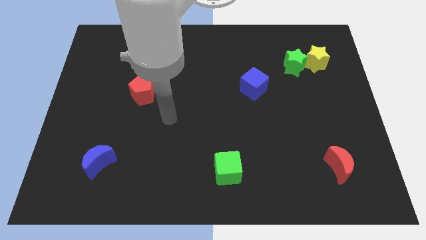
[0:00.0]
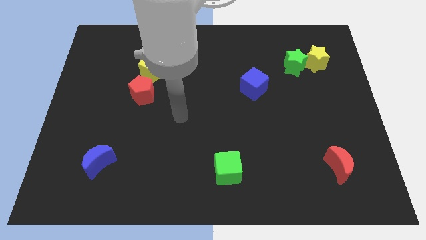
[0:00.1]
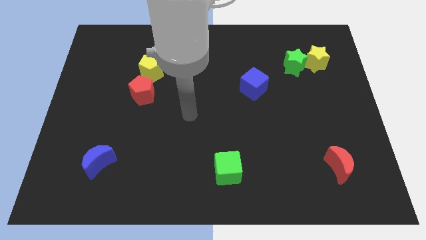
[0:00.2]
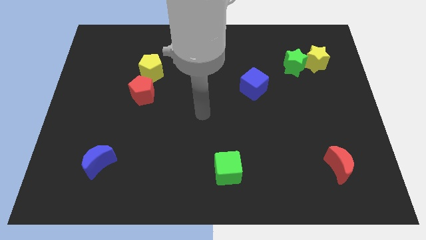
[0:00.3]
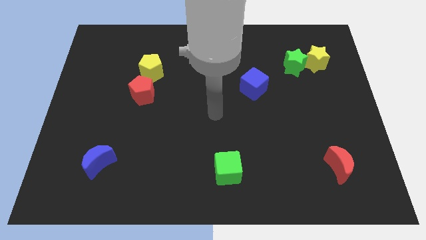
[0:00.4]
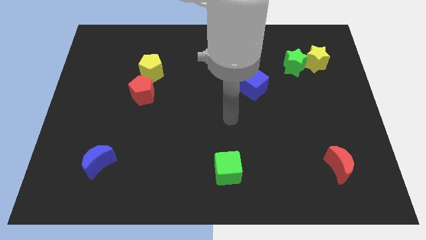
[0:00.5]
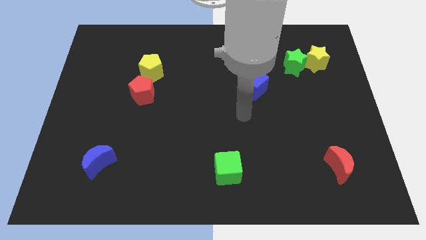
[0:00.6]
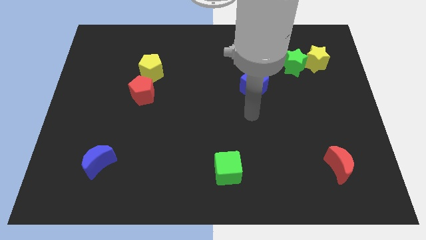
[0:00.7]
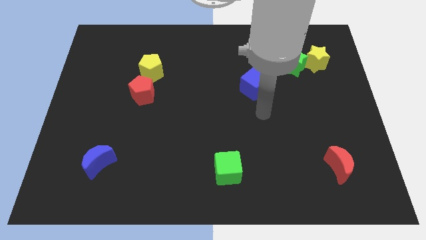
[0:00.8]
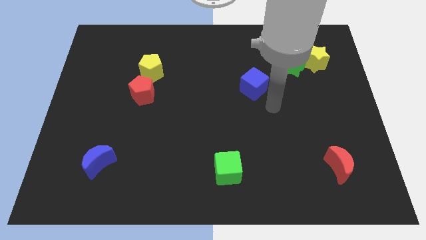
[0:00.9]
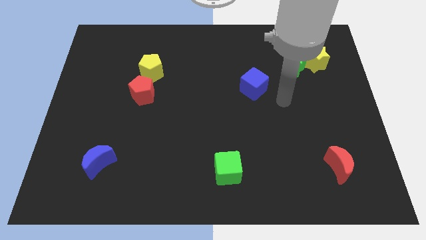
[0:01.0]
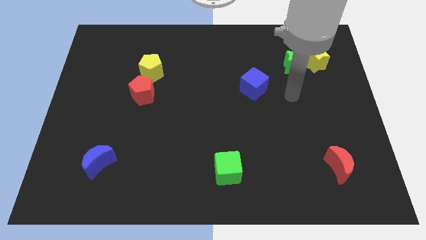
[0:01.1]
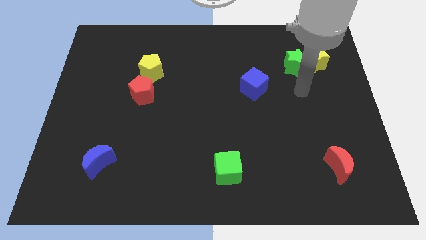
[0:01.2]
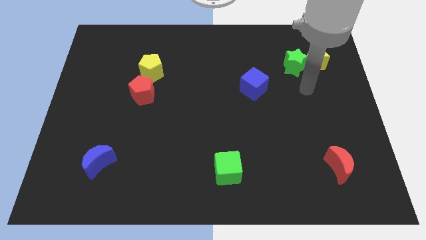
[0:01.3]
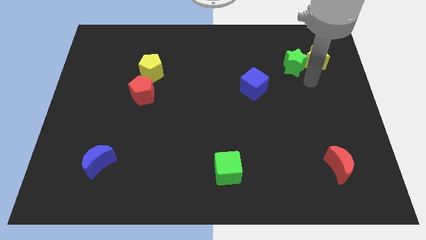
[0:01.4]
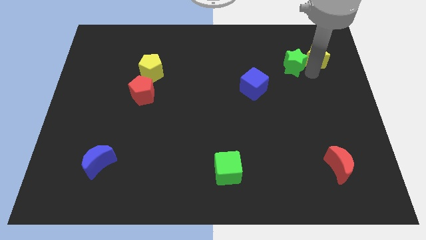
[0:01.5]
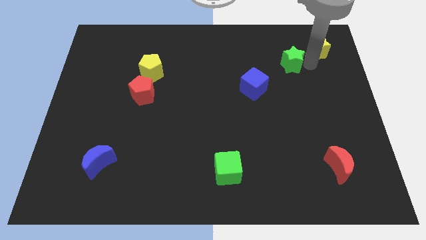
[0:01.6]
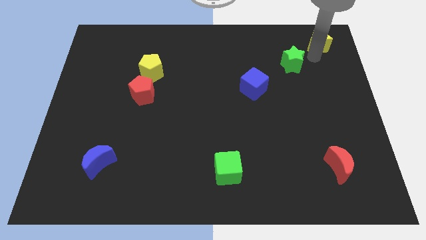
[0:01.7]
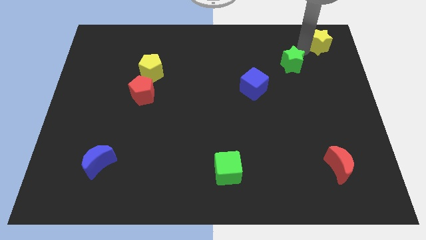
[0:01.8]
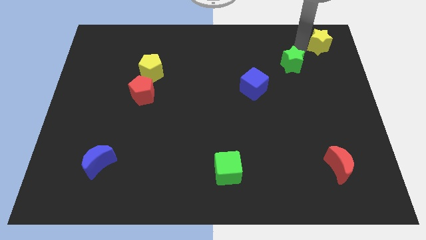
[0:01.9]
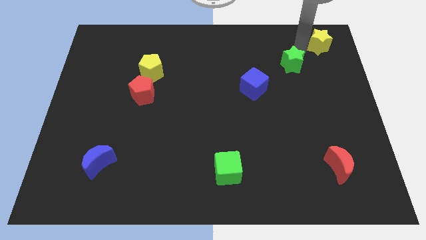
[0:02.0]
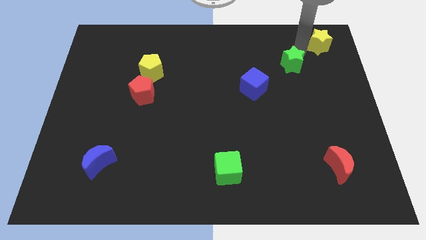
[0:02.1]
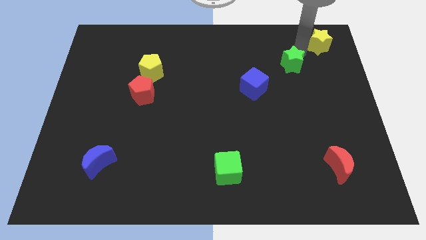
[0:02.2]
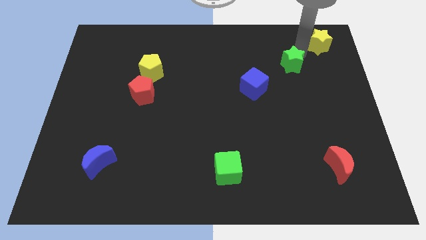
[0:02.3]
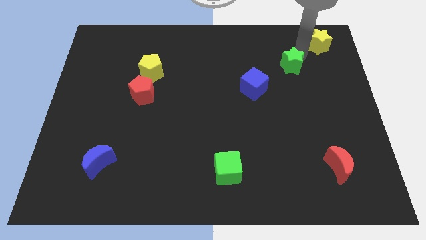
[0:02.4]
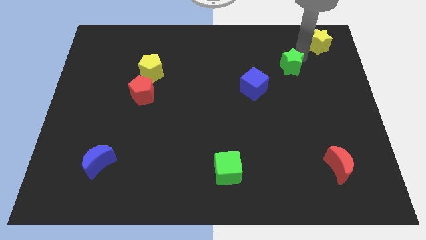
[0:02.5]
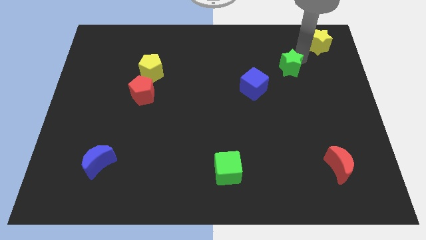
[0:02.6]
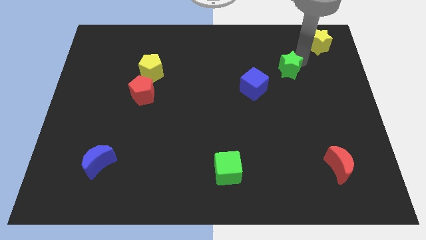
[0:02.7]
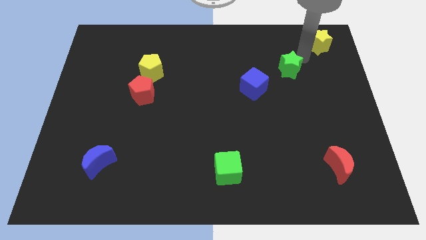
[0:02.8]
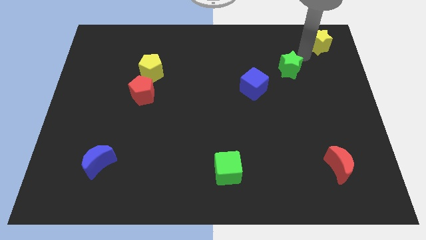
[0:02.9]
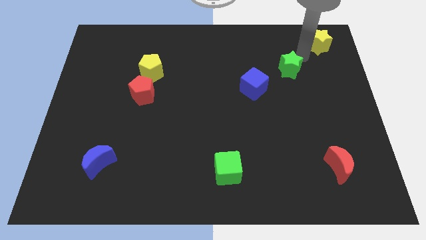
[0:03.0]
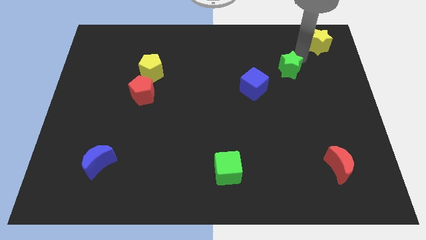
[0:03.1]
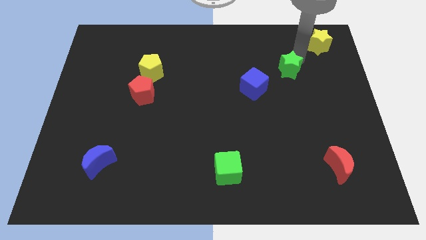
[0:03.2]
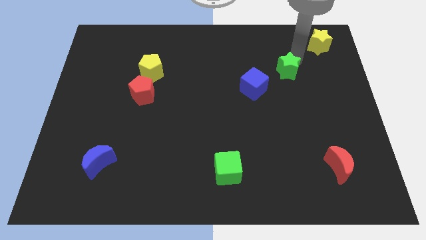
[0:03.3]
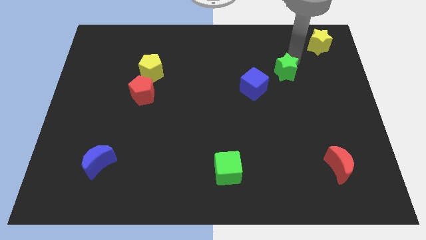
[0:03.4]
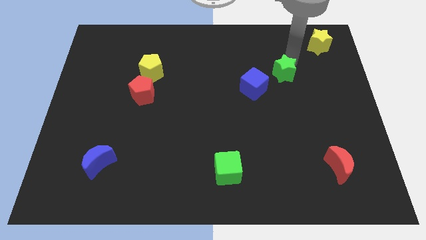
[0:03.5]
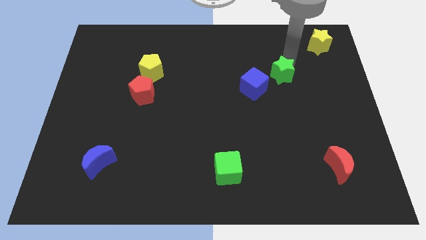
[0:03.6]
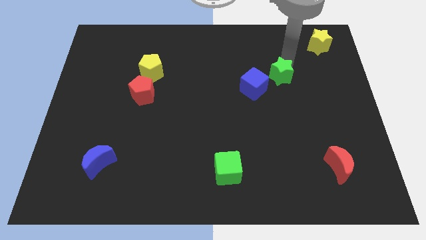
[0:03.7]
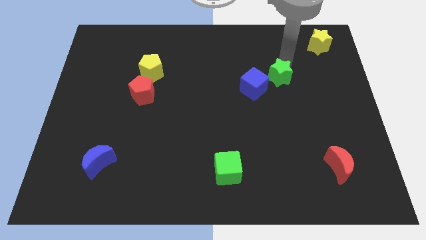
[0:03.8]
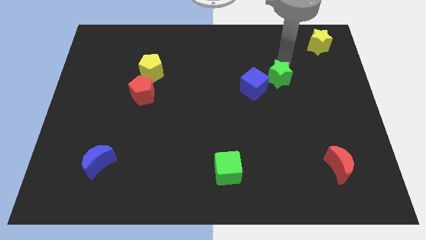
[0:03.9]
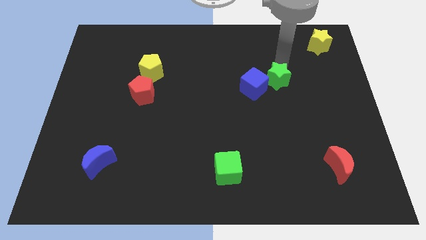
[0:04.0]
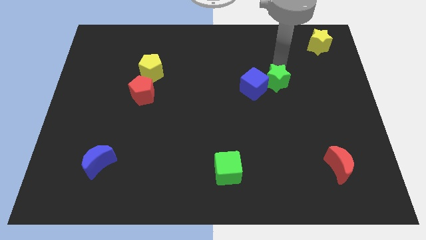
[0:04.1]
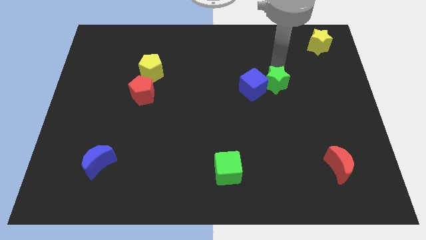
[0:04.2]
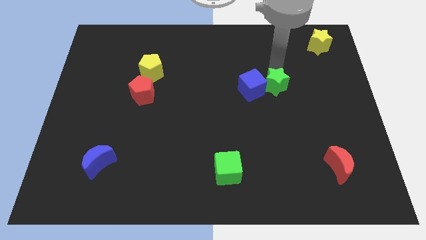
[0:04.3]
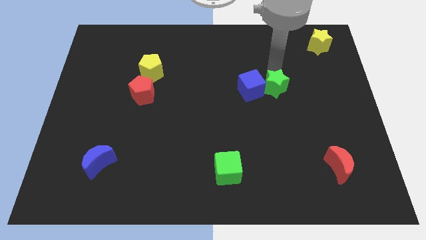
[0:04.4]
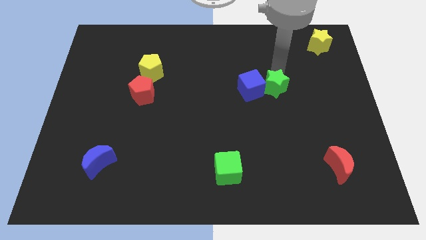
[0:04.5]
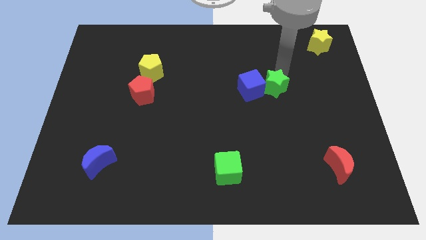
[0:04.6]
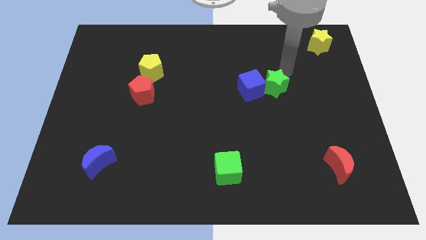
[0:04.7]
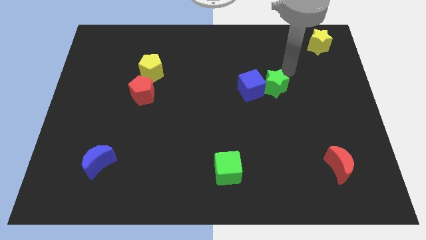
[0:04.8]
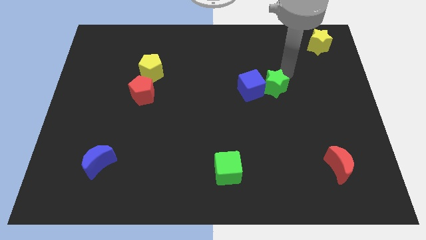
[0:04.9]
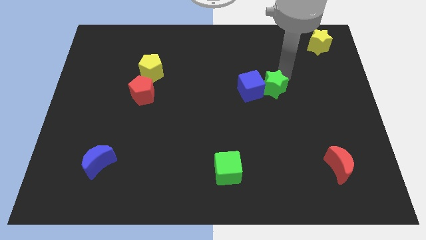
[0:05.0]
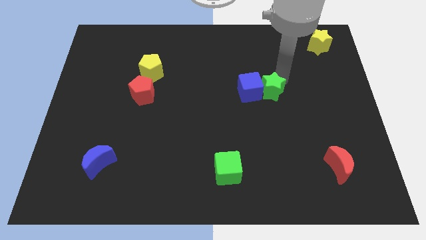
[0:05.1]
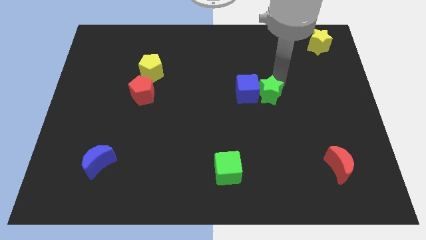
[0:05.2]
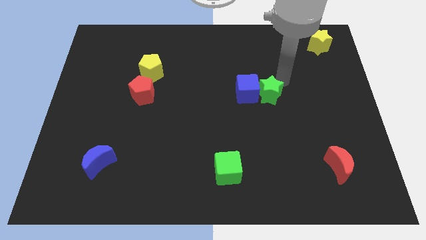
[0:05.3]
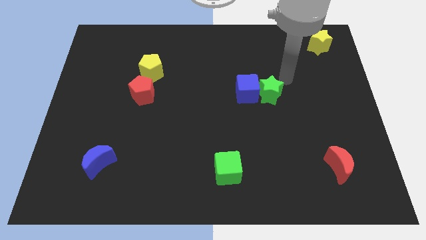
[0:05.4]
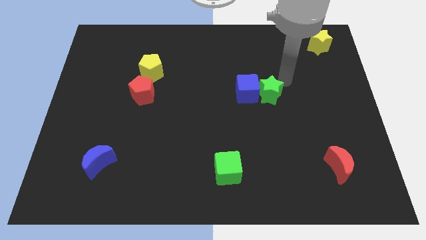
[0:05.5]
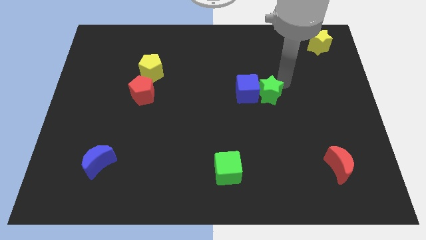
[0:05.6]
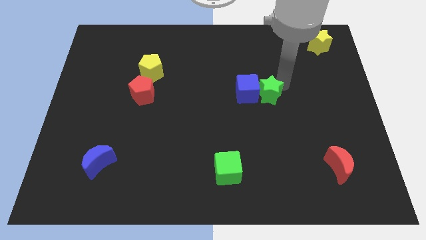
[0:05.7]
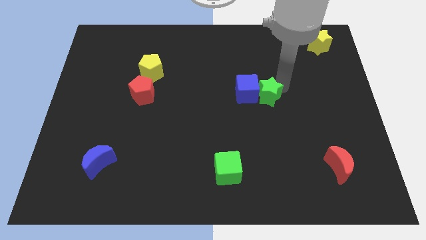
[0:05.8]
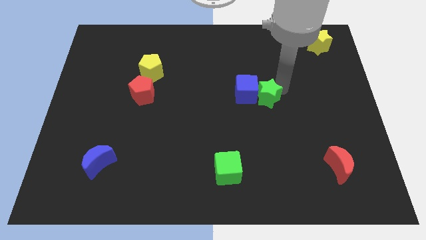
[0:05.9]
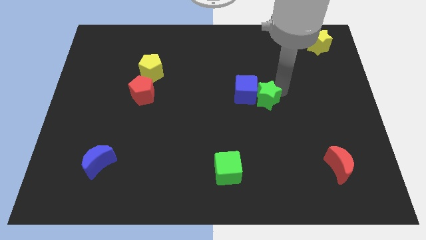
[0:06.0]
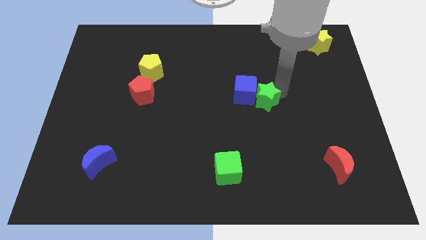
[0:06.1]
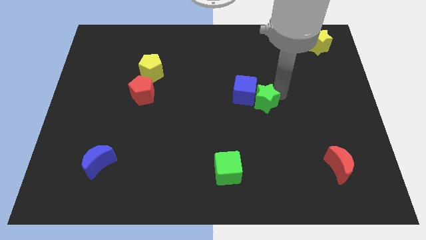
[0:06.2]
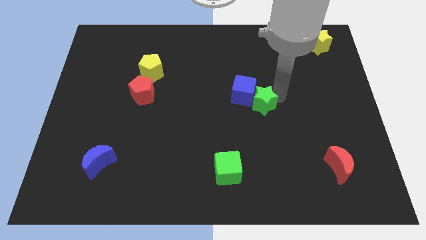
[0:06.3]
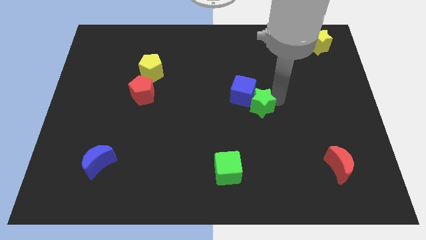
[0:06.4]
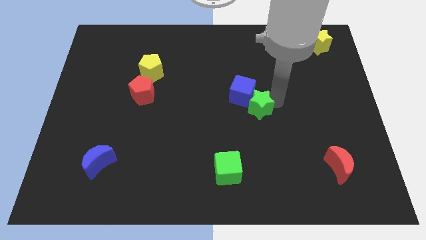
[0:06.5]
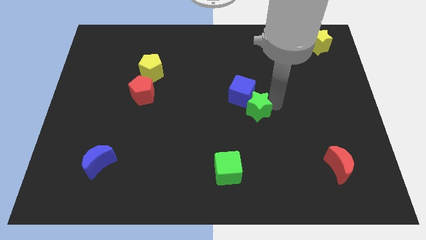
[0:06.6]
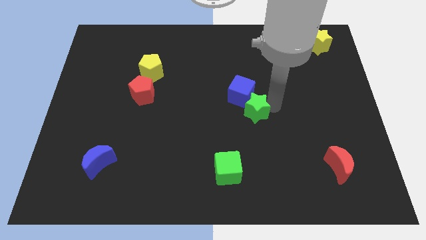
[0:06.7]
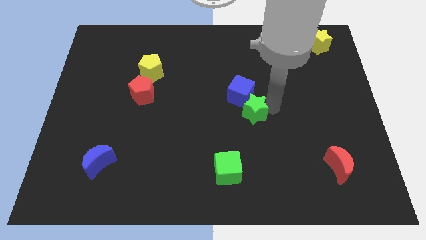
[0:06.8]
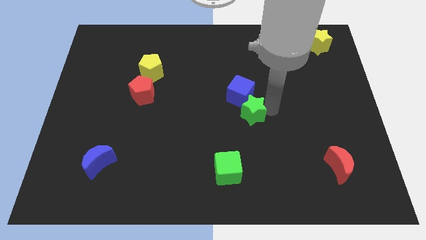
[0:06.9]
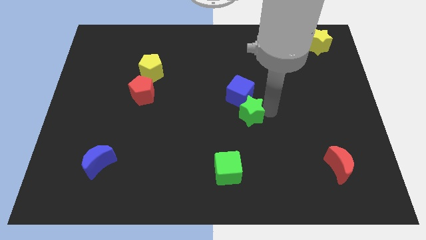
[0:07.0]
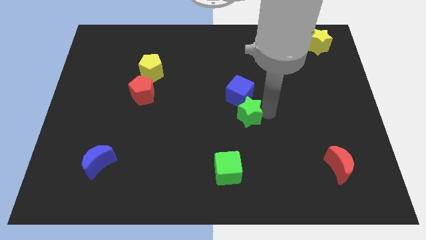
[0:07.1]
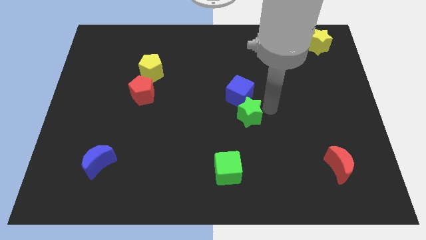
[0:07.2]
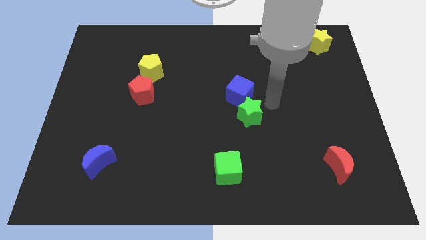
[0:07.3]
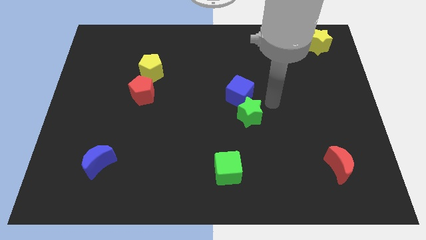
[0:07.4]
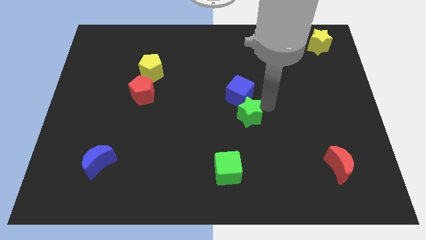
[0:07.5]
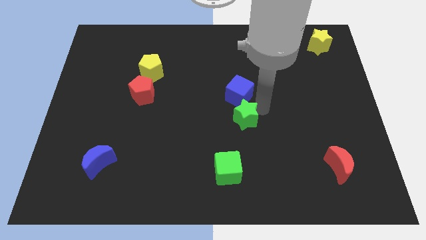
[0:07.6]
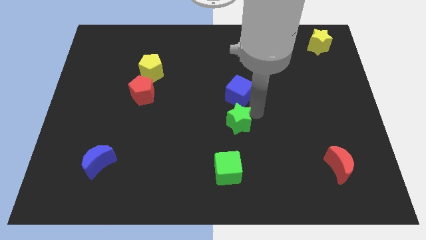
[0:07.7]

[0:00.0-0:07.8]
move the green star to the top side of the green cube

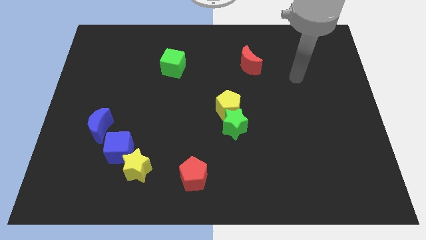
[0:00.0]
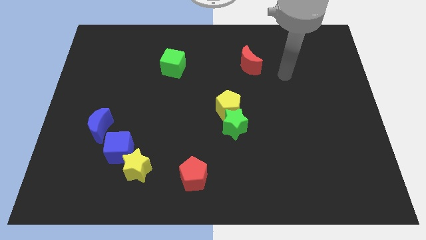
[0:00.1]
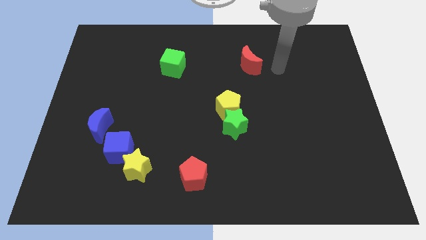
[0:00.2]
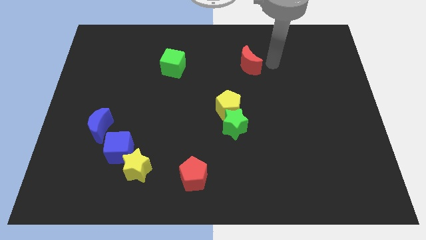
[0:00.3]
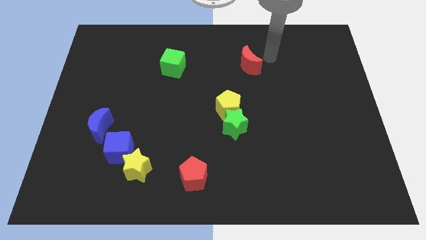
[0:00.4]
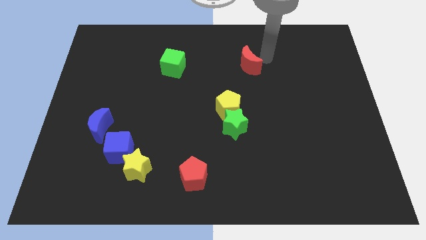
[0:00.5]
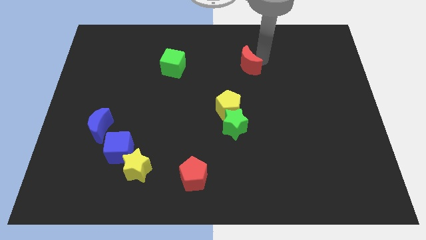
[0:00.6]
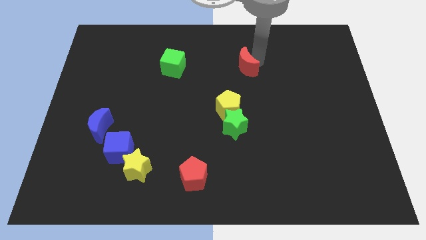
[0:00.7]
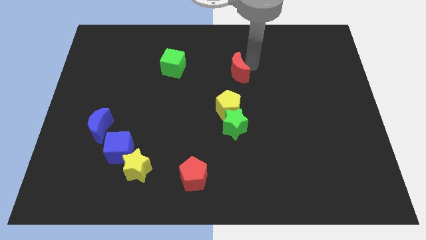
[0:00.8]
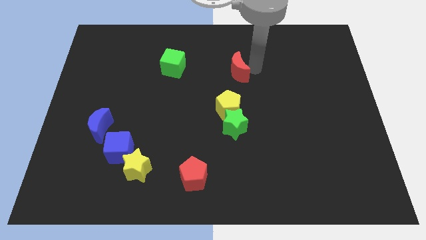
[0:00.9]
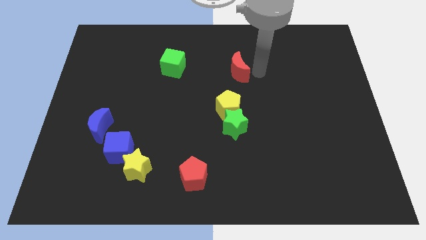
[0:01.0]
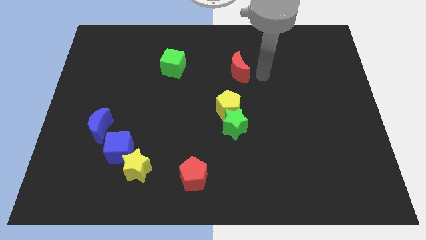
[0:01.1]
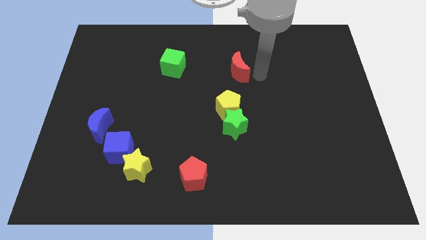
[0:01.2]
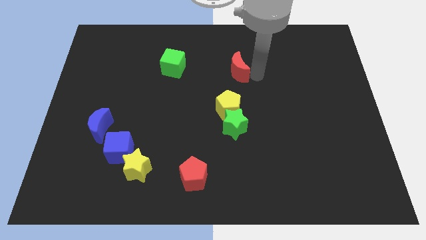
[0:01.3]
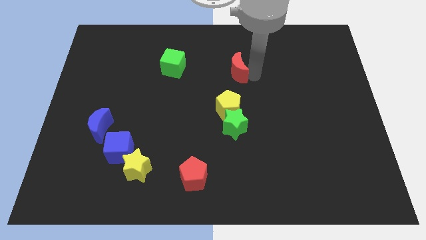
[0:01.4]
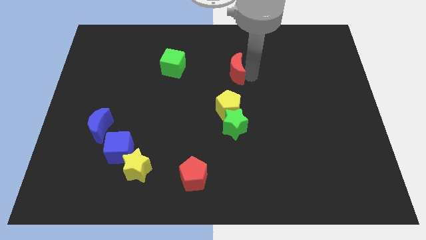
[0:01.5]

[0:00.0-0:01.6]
put the red moon right of the green cube
